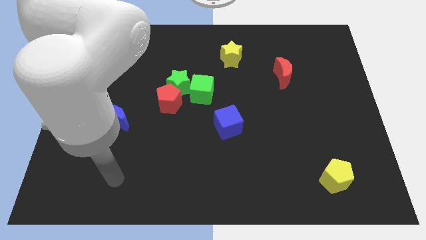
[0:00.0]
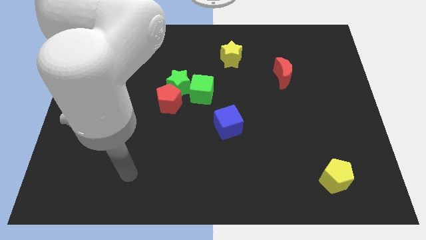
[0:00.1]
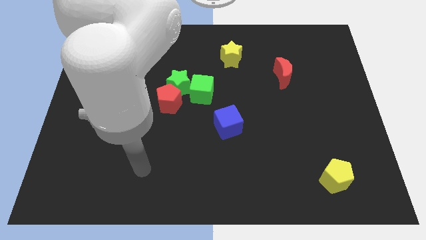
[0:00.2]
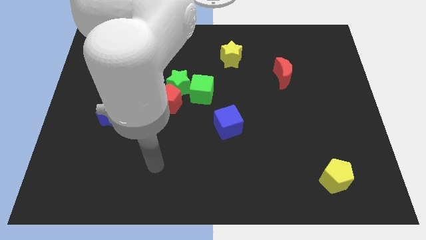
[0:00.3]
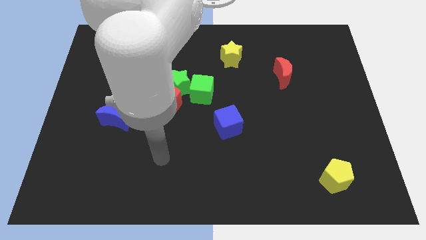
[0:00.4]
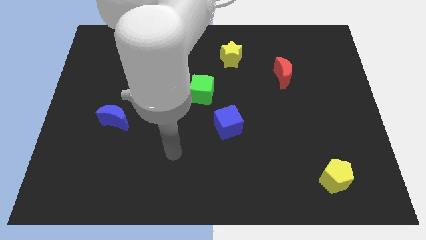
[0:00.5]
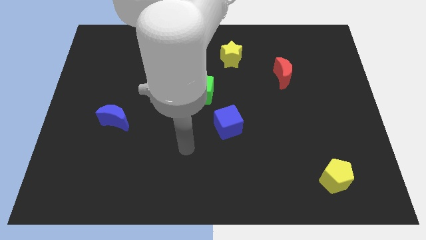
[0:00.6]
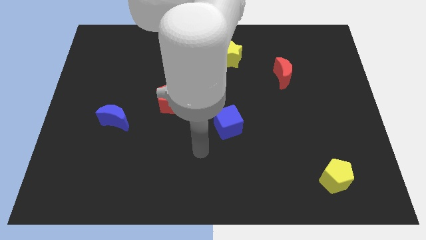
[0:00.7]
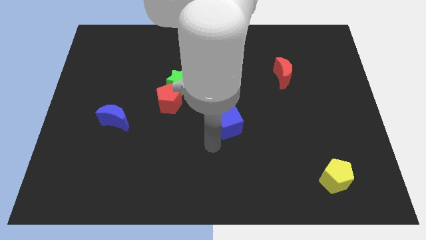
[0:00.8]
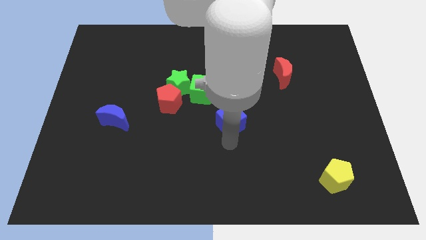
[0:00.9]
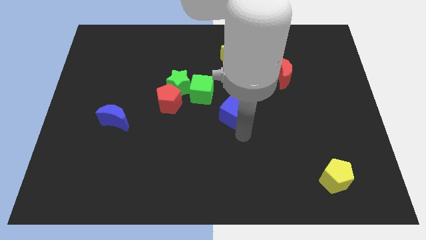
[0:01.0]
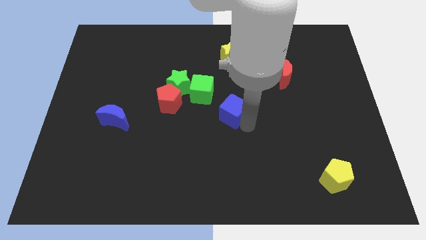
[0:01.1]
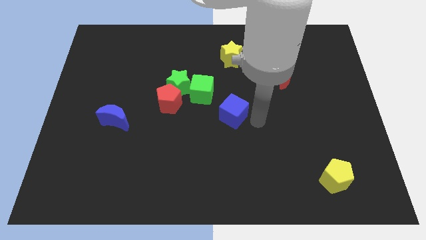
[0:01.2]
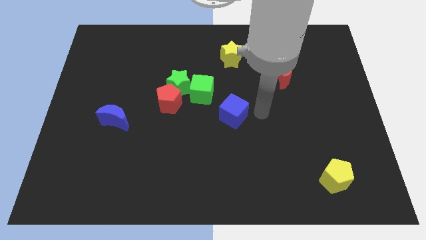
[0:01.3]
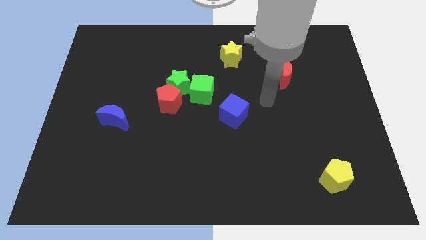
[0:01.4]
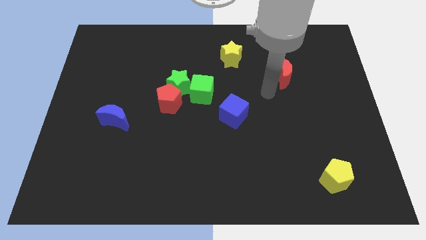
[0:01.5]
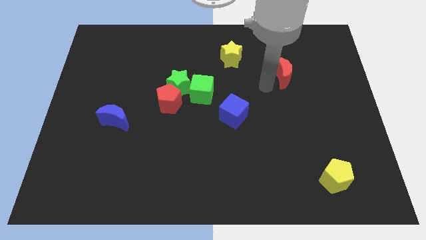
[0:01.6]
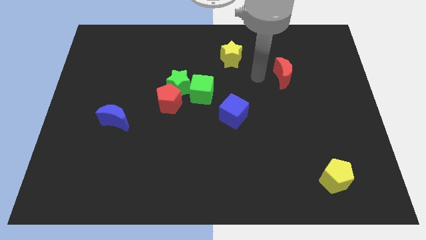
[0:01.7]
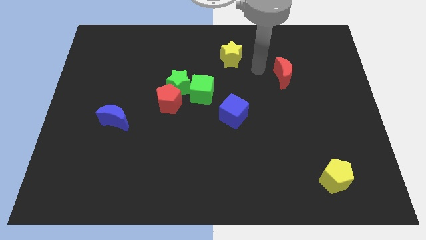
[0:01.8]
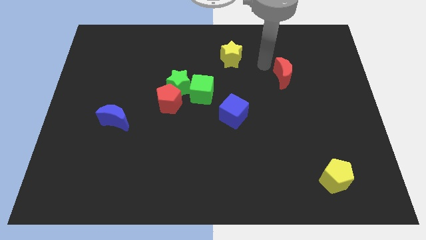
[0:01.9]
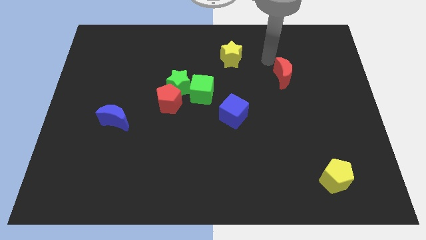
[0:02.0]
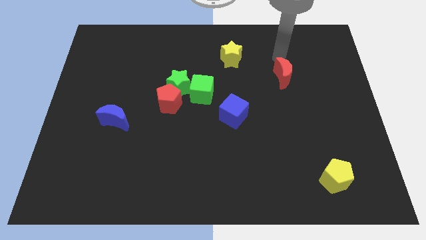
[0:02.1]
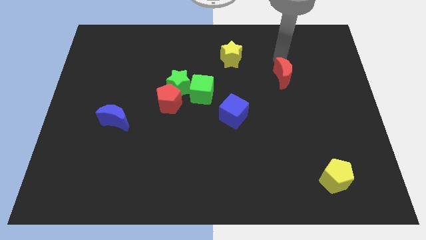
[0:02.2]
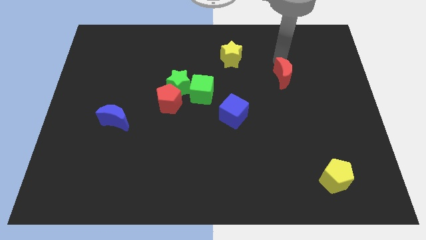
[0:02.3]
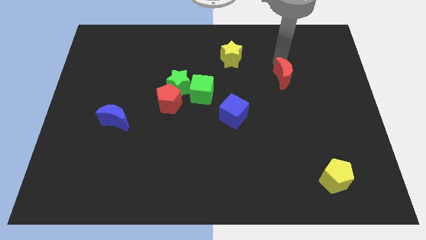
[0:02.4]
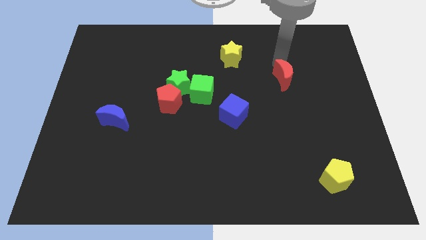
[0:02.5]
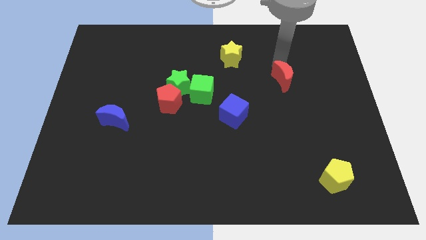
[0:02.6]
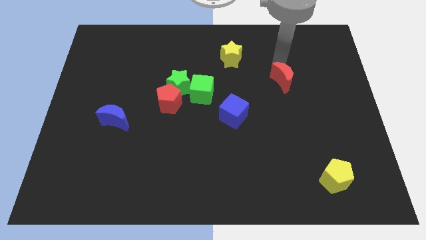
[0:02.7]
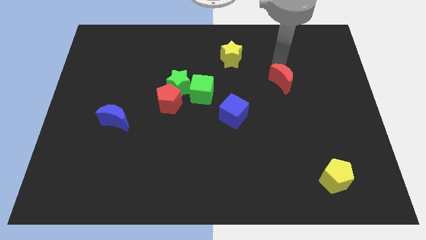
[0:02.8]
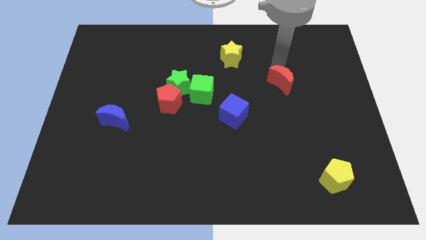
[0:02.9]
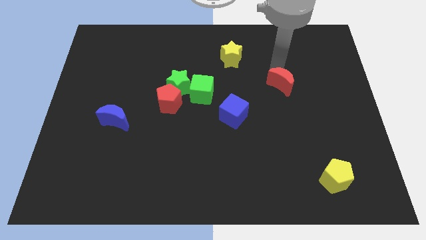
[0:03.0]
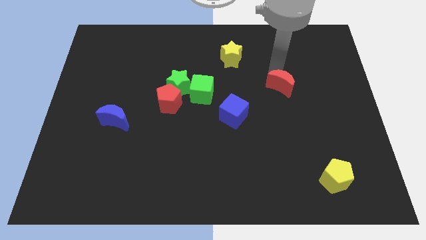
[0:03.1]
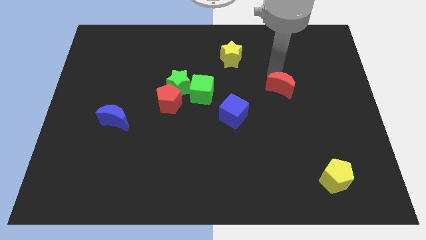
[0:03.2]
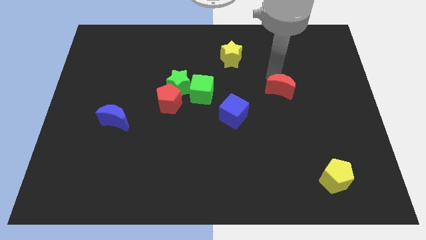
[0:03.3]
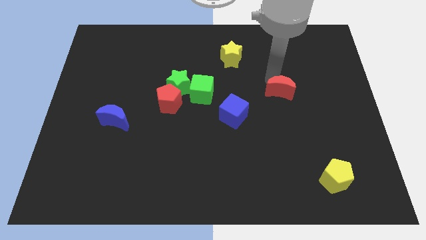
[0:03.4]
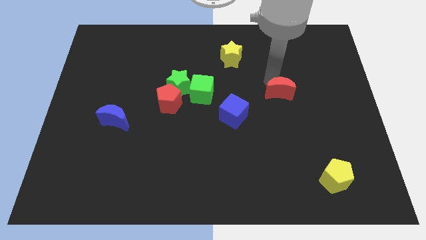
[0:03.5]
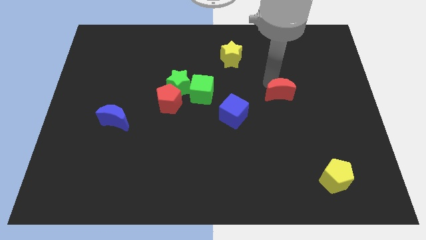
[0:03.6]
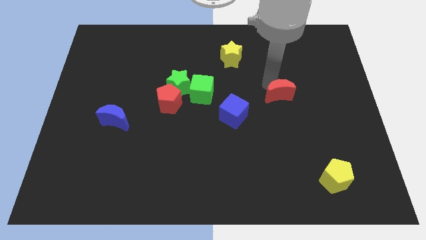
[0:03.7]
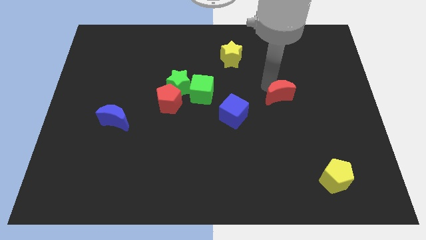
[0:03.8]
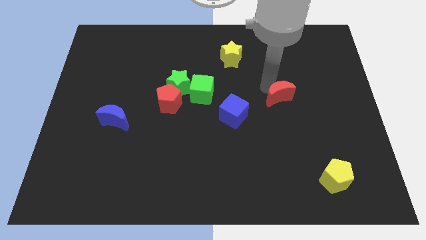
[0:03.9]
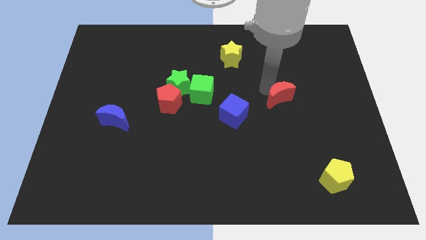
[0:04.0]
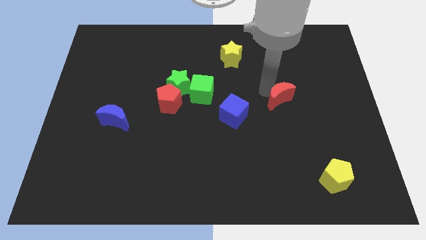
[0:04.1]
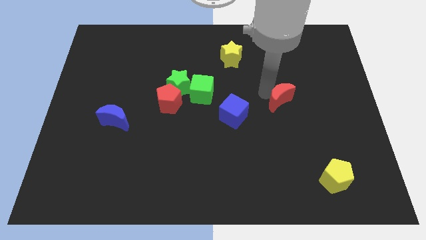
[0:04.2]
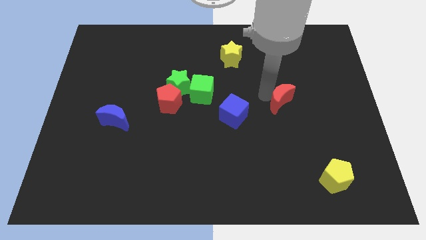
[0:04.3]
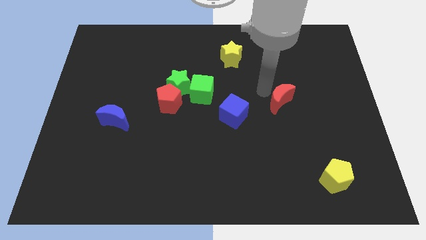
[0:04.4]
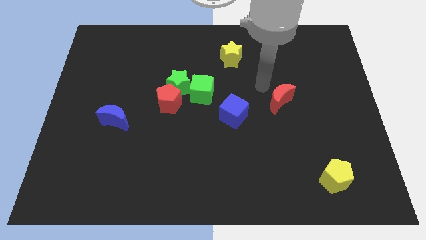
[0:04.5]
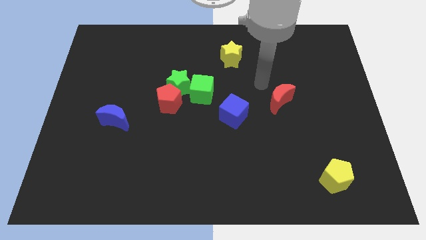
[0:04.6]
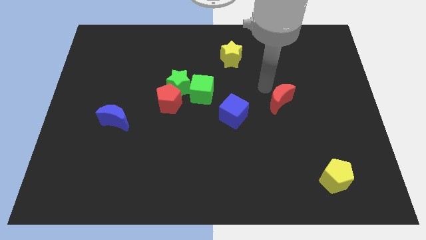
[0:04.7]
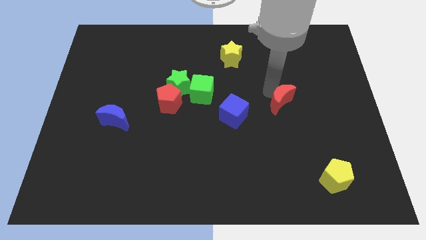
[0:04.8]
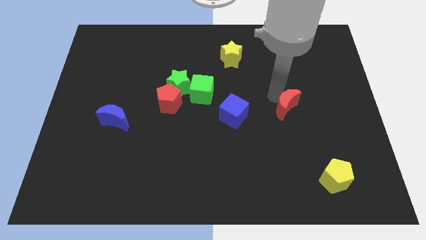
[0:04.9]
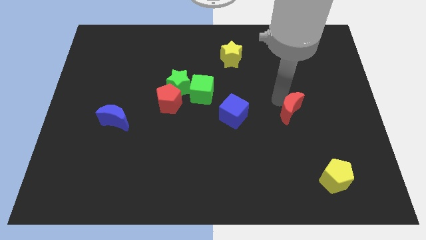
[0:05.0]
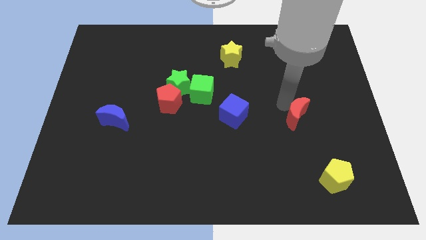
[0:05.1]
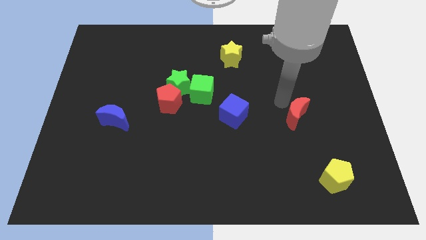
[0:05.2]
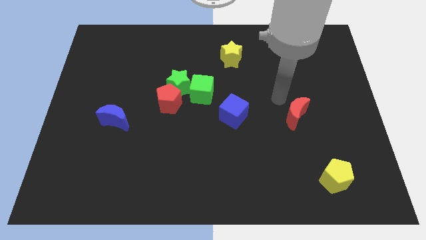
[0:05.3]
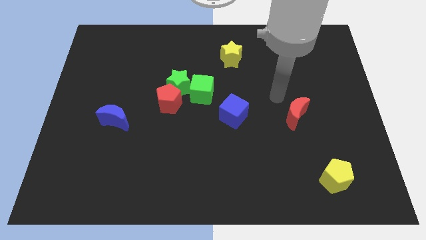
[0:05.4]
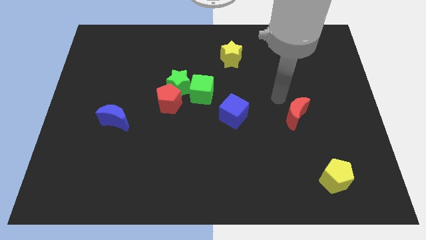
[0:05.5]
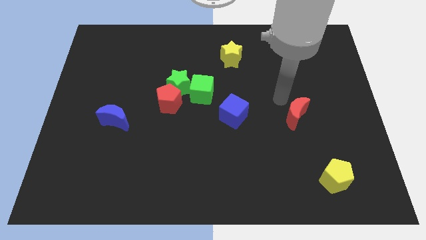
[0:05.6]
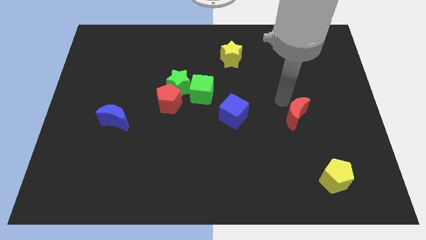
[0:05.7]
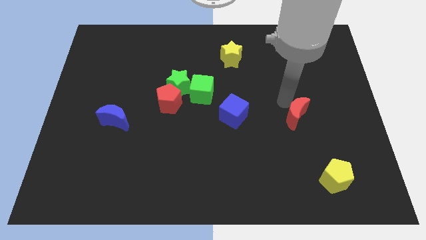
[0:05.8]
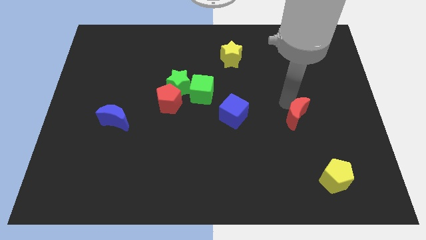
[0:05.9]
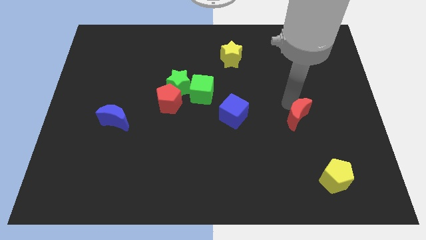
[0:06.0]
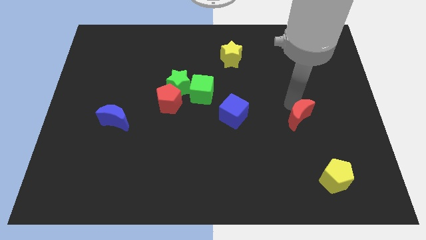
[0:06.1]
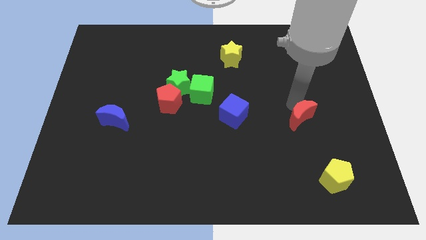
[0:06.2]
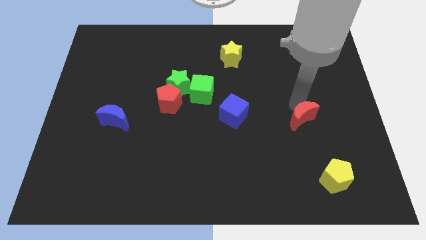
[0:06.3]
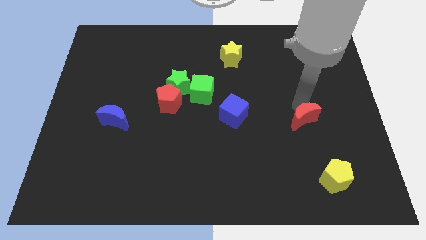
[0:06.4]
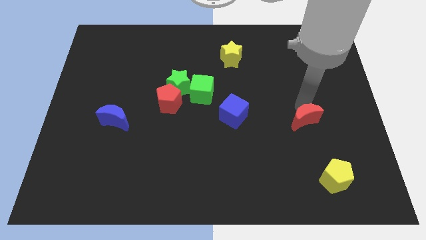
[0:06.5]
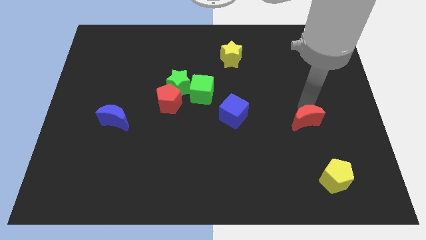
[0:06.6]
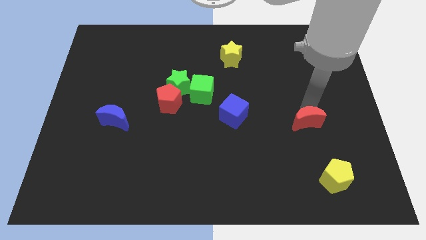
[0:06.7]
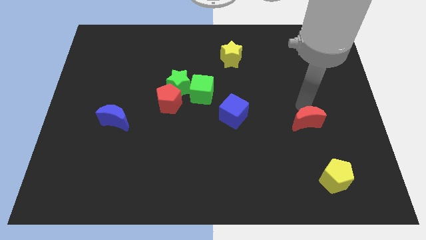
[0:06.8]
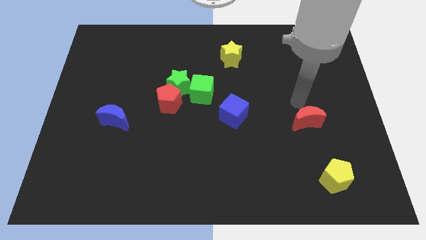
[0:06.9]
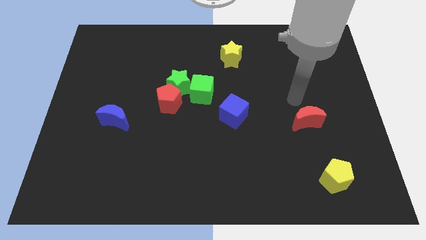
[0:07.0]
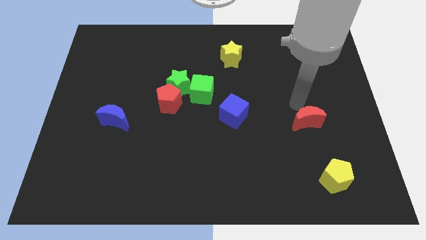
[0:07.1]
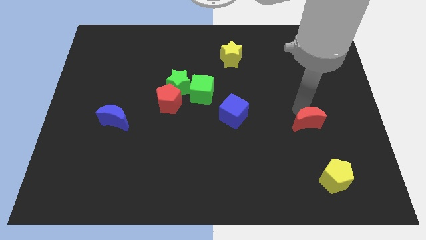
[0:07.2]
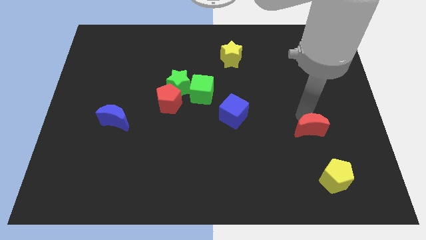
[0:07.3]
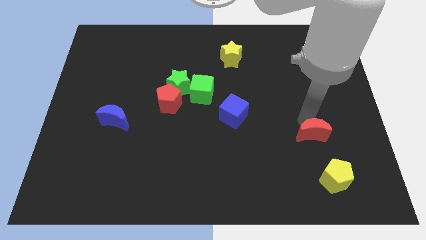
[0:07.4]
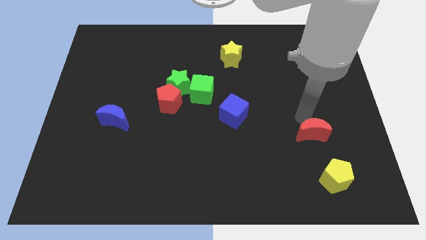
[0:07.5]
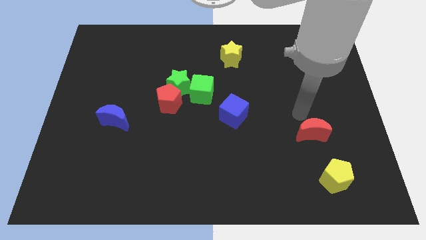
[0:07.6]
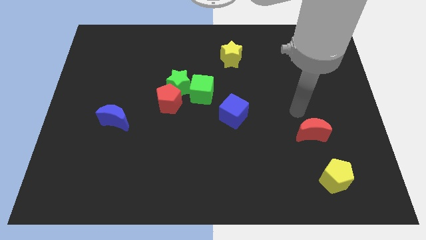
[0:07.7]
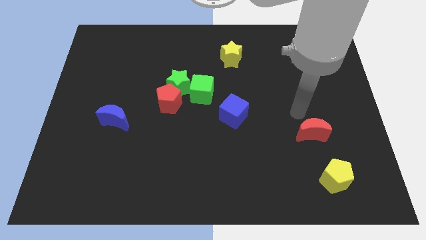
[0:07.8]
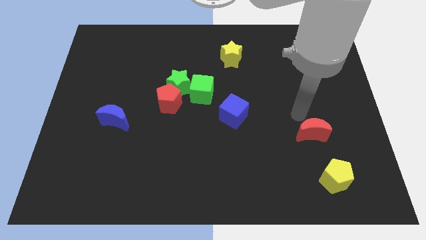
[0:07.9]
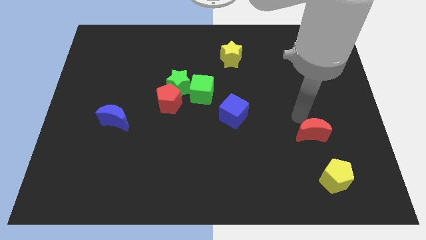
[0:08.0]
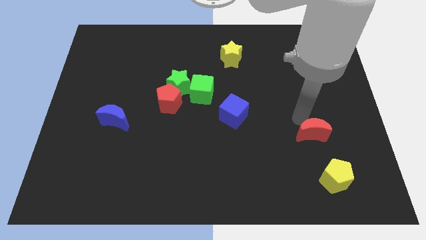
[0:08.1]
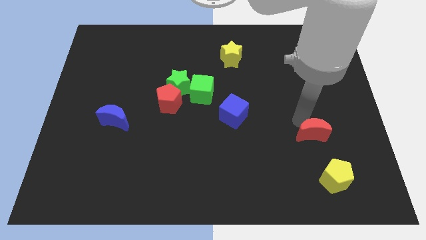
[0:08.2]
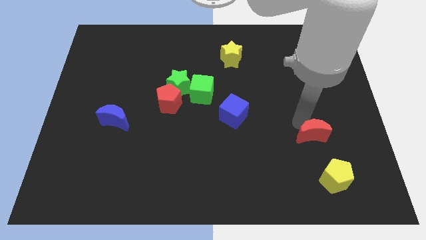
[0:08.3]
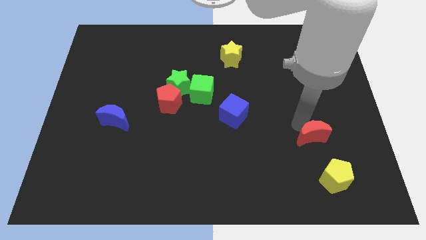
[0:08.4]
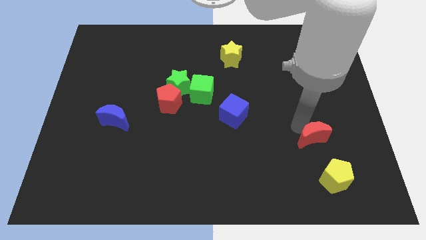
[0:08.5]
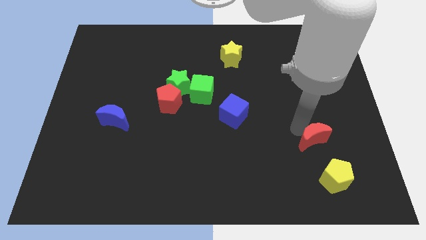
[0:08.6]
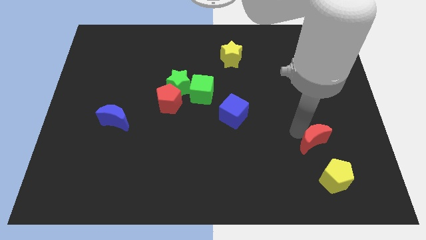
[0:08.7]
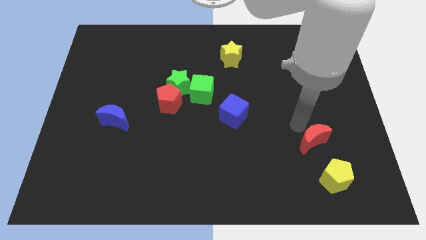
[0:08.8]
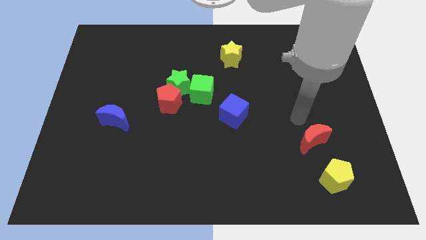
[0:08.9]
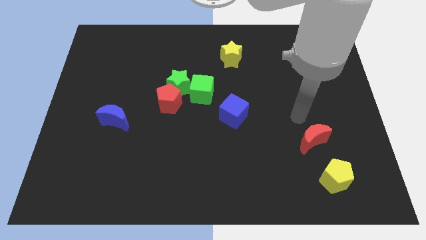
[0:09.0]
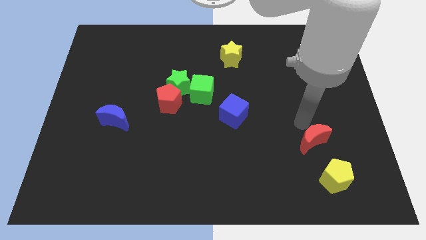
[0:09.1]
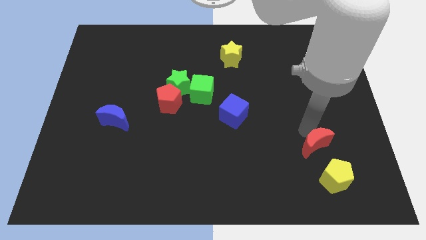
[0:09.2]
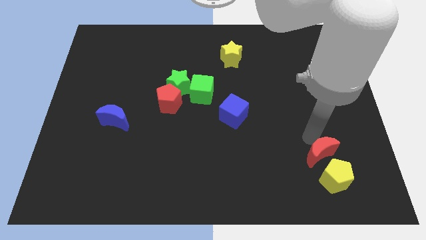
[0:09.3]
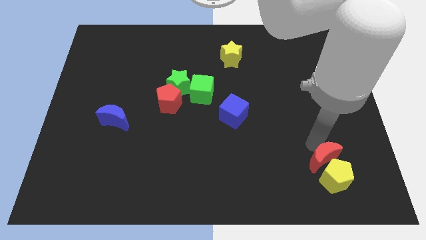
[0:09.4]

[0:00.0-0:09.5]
push the red moon towards the yellow pentagon
